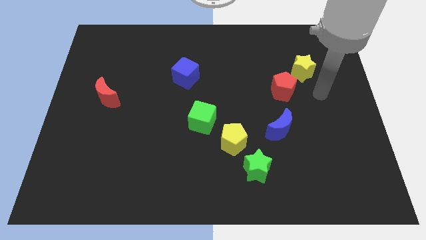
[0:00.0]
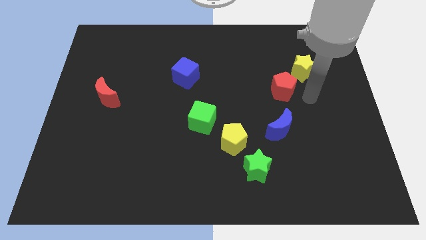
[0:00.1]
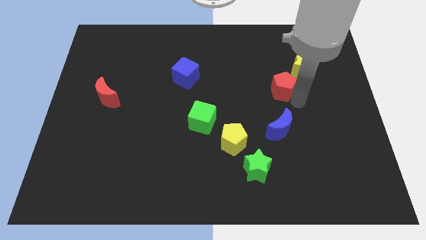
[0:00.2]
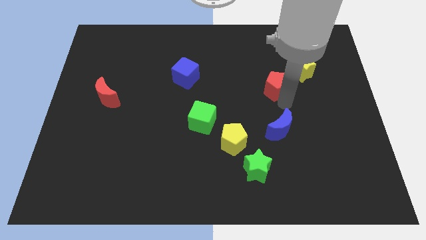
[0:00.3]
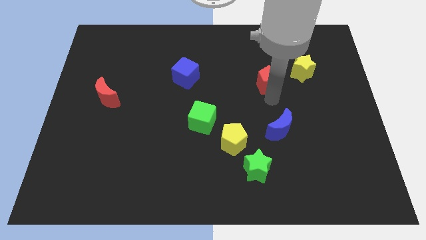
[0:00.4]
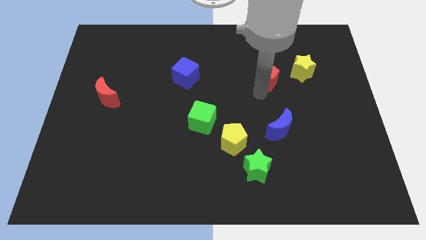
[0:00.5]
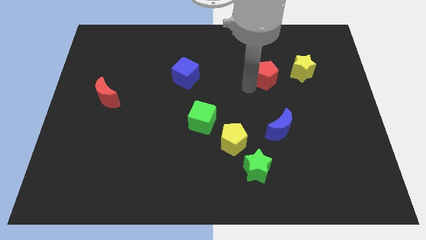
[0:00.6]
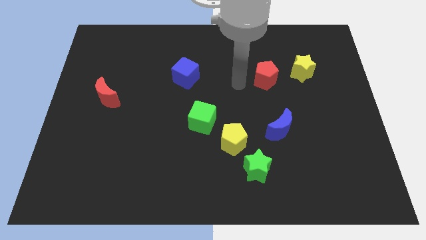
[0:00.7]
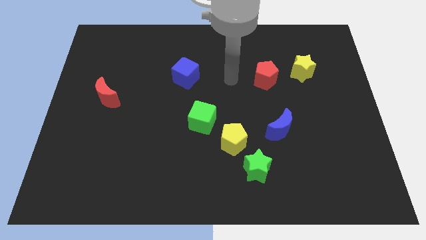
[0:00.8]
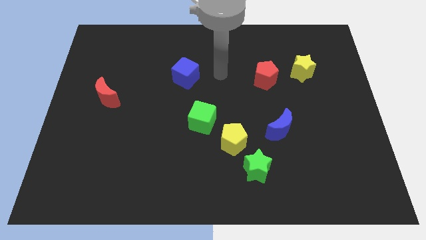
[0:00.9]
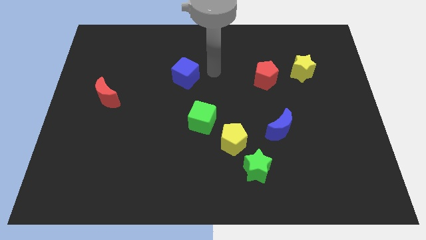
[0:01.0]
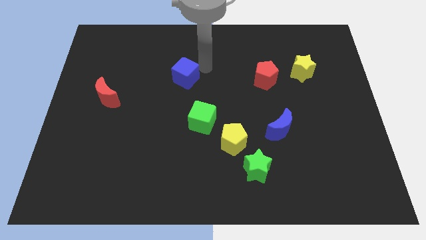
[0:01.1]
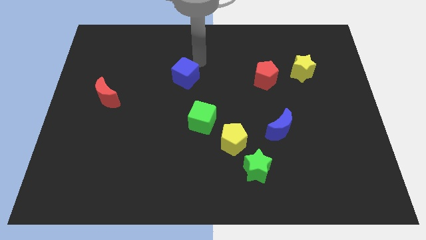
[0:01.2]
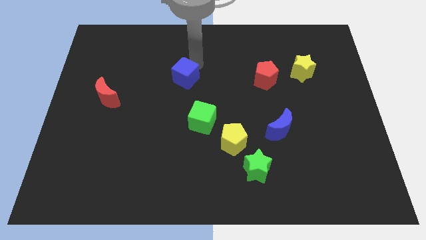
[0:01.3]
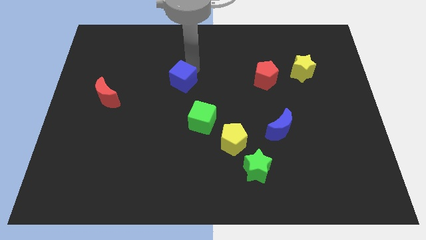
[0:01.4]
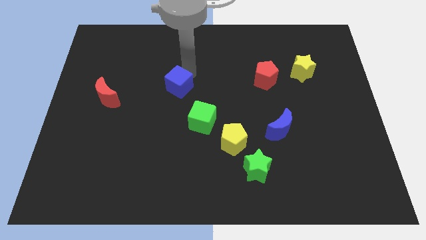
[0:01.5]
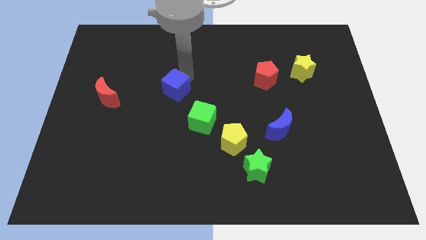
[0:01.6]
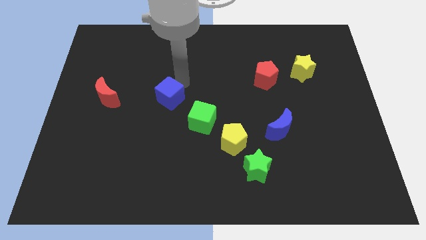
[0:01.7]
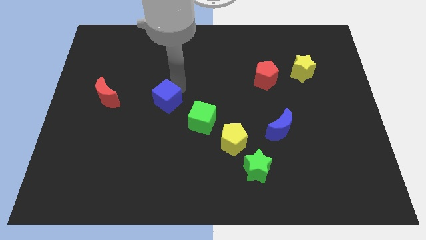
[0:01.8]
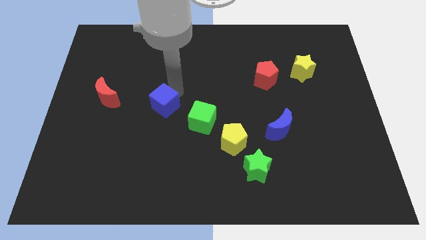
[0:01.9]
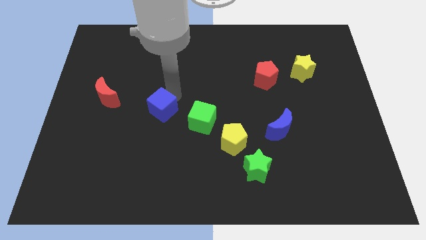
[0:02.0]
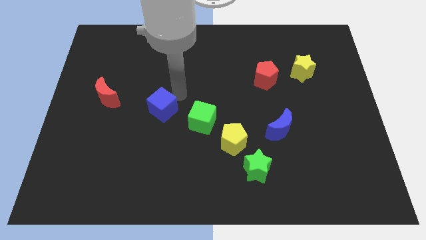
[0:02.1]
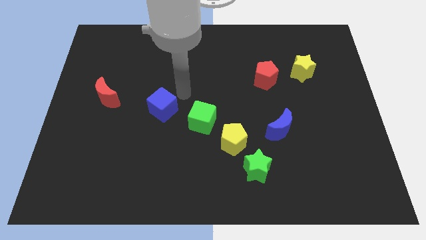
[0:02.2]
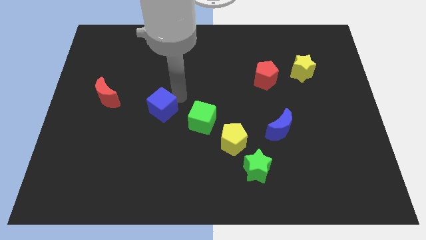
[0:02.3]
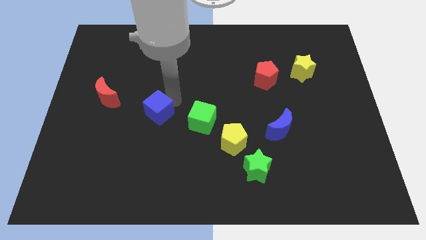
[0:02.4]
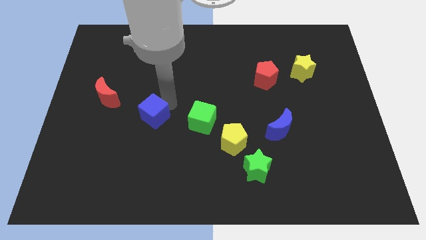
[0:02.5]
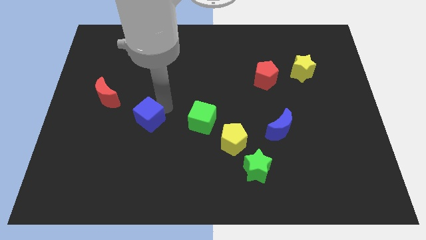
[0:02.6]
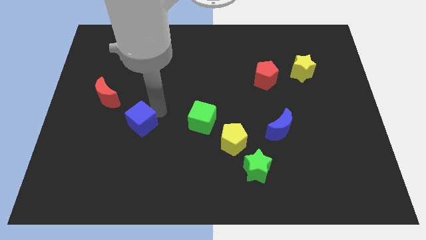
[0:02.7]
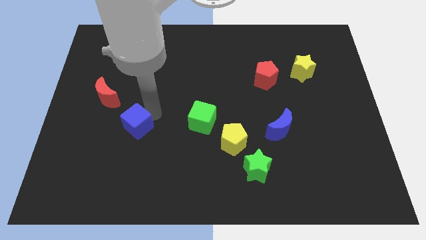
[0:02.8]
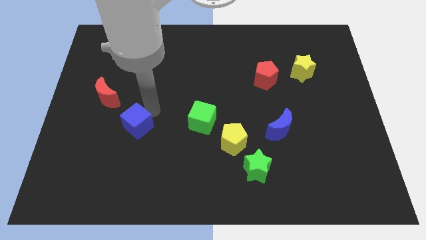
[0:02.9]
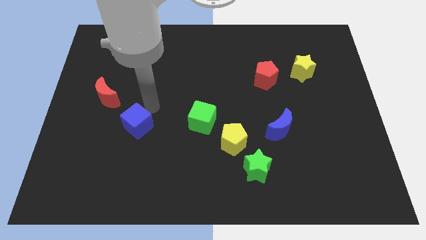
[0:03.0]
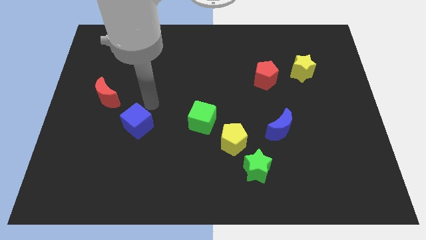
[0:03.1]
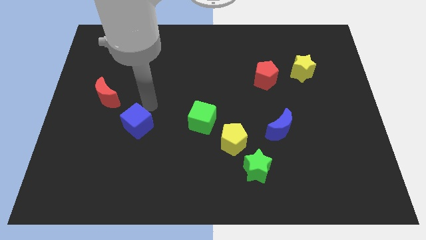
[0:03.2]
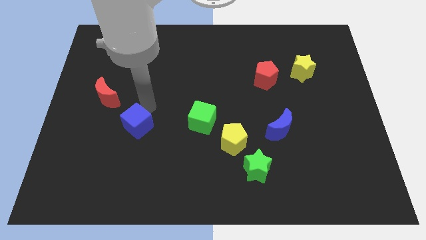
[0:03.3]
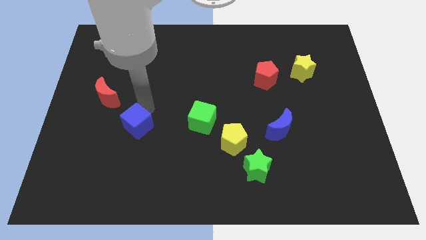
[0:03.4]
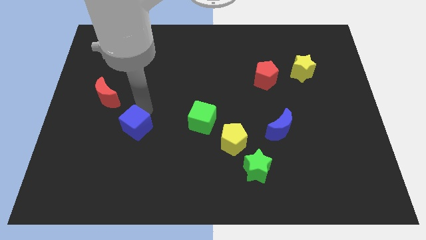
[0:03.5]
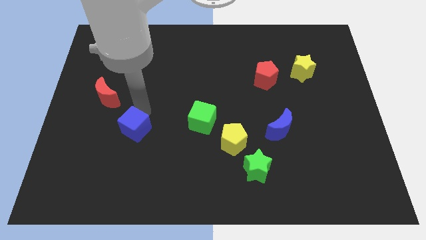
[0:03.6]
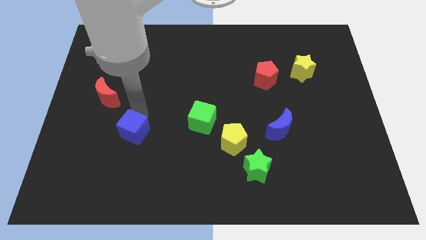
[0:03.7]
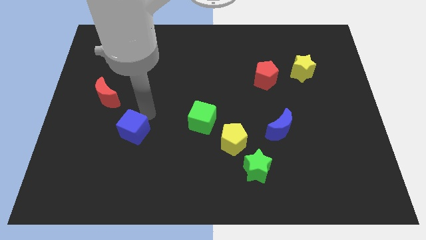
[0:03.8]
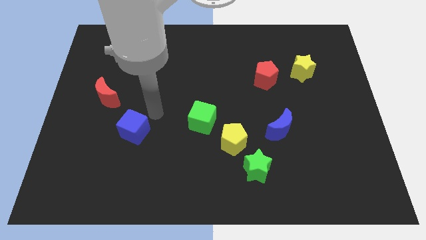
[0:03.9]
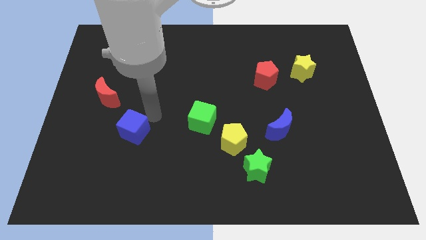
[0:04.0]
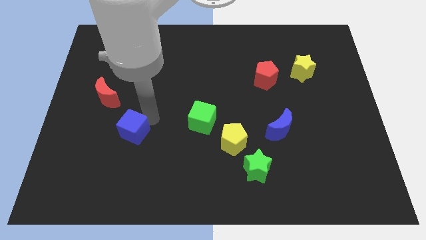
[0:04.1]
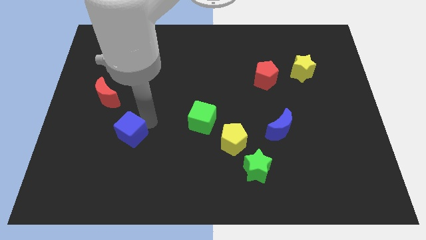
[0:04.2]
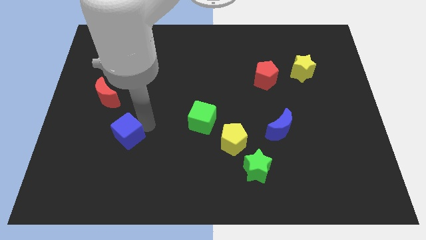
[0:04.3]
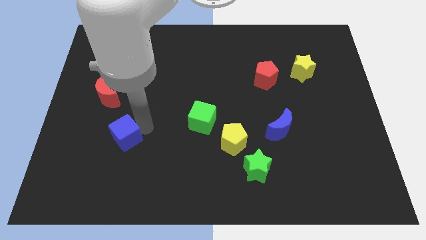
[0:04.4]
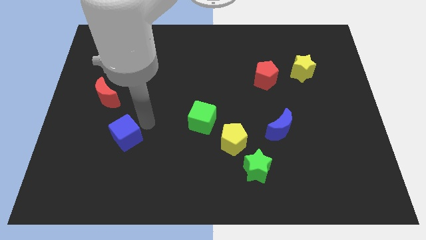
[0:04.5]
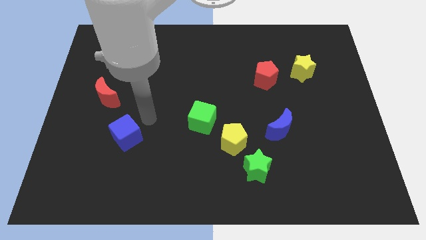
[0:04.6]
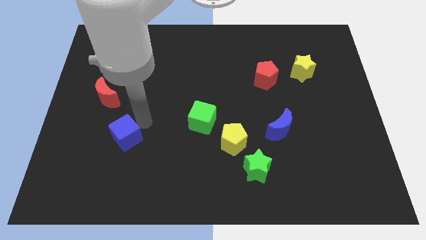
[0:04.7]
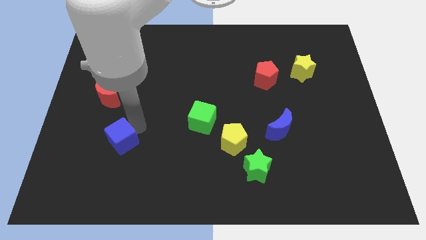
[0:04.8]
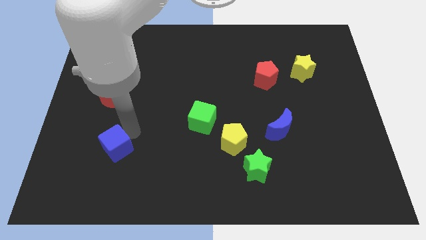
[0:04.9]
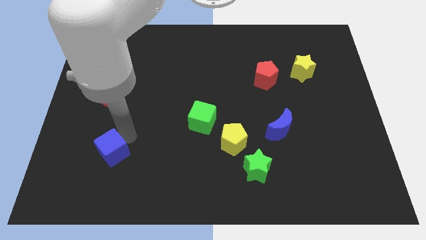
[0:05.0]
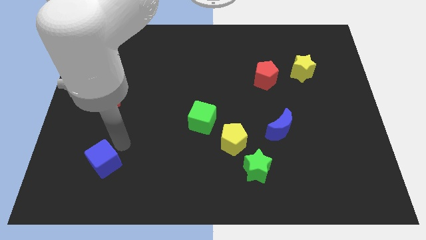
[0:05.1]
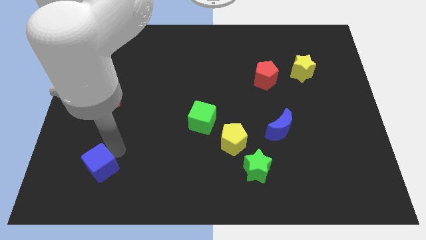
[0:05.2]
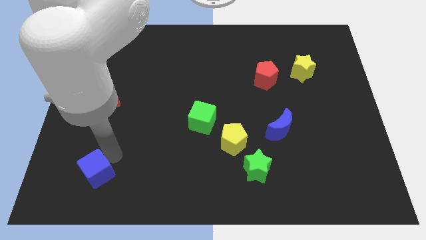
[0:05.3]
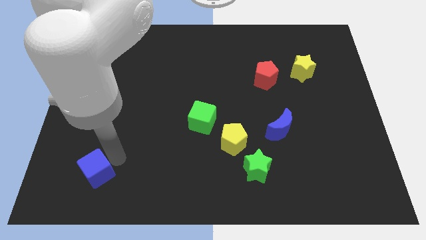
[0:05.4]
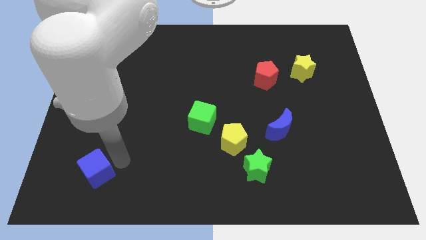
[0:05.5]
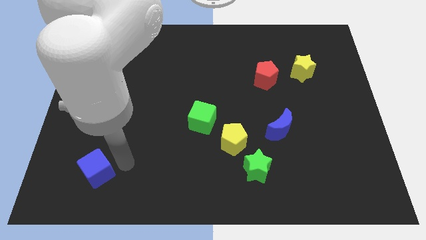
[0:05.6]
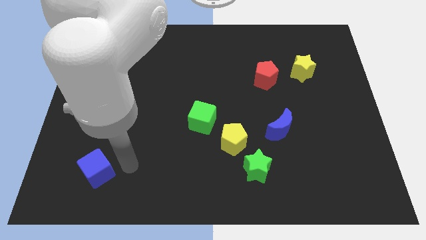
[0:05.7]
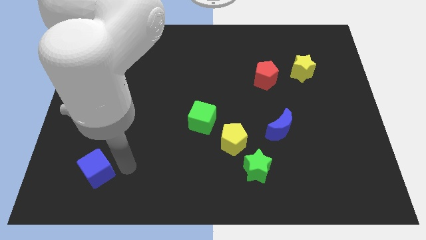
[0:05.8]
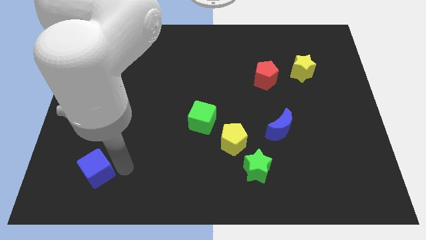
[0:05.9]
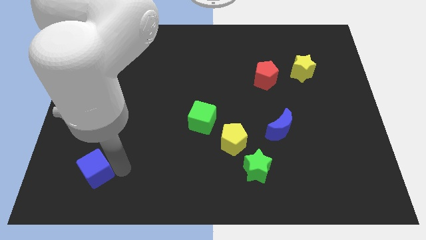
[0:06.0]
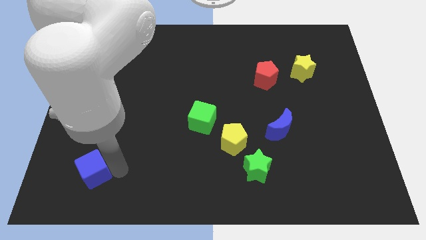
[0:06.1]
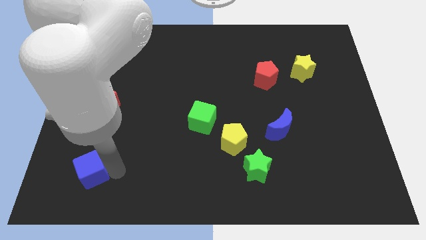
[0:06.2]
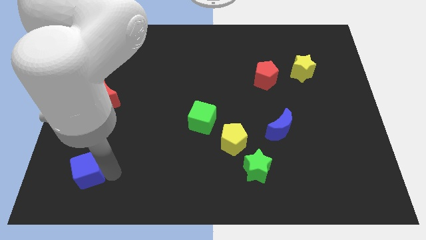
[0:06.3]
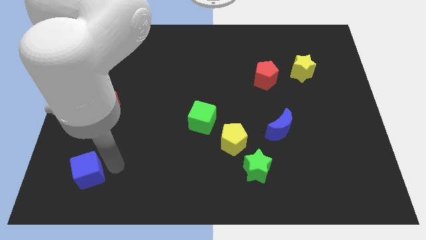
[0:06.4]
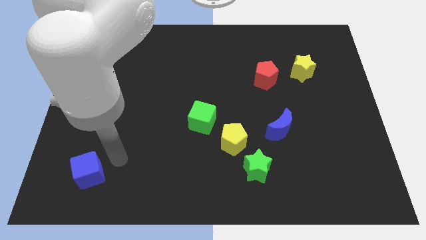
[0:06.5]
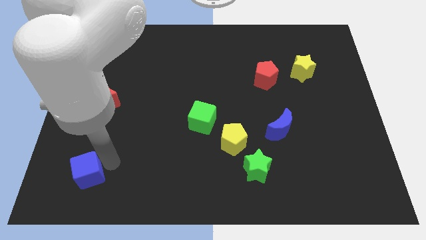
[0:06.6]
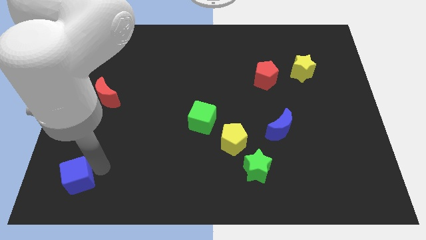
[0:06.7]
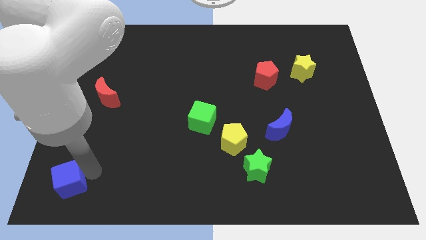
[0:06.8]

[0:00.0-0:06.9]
slide the blue cube to the bottom left
